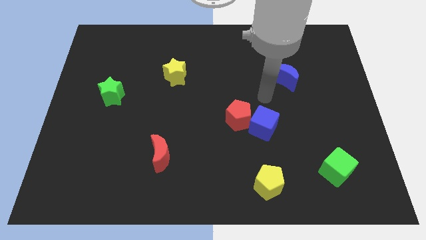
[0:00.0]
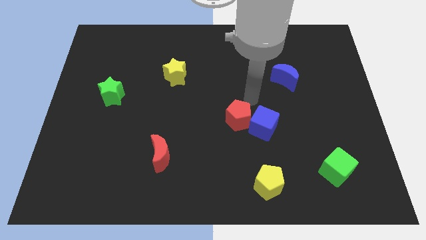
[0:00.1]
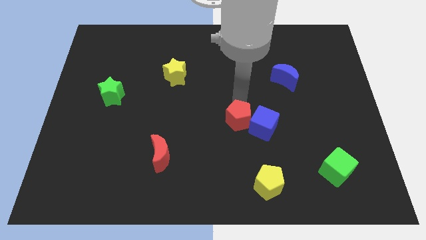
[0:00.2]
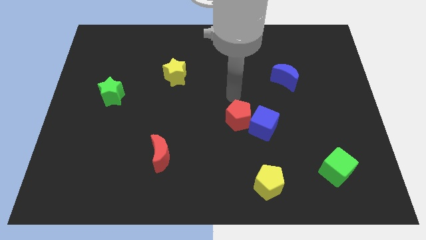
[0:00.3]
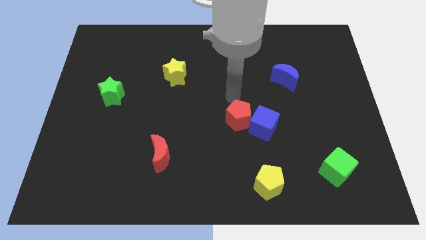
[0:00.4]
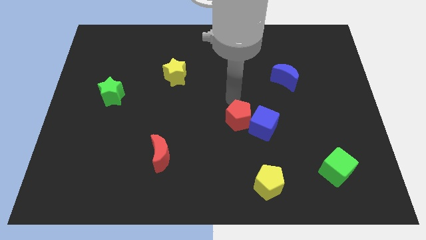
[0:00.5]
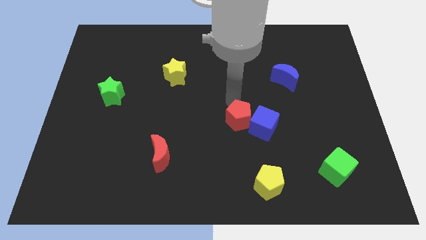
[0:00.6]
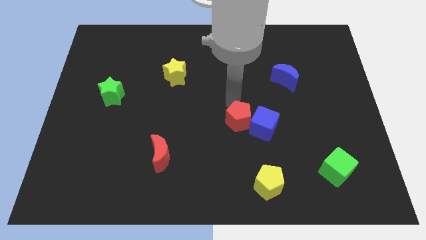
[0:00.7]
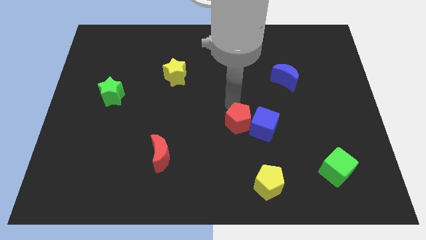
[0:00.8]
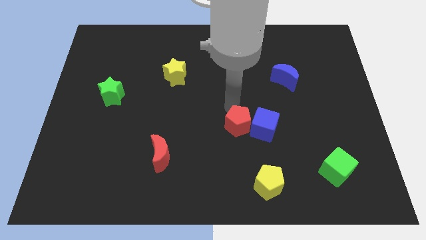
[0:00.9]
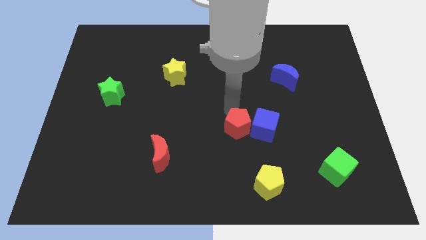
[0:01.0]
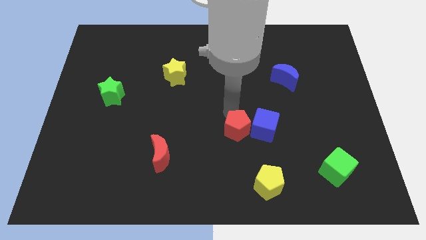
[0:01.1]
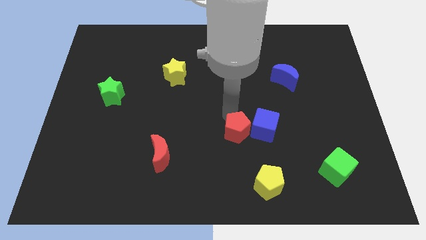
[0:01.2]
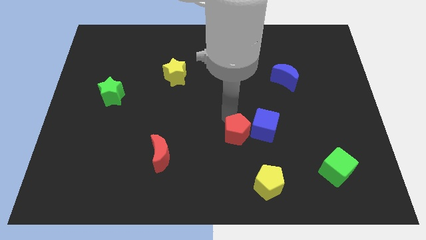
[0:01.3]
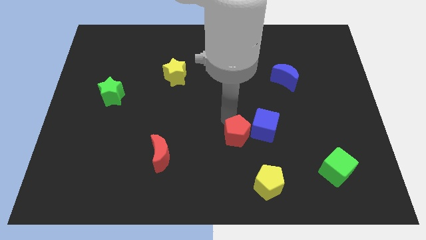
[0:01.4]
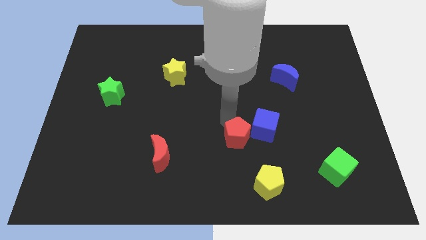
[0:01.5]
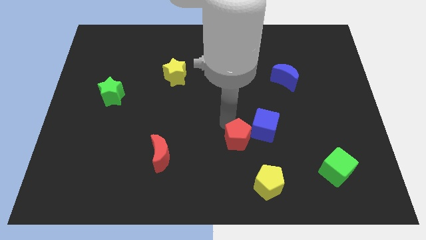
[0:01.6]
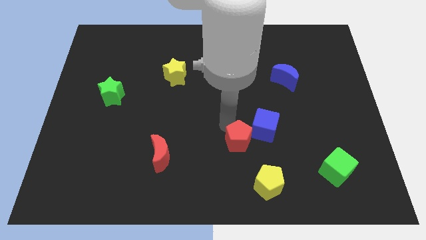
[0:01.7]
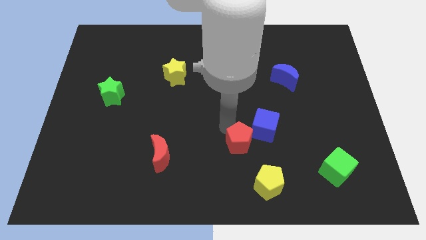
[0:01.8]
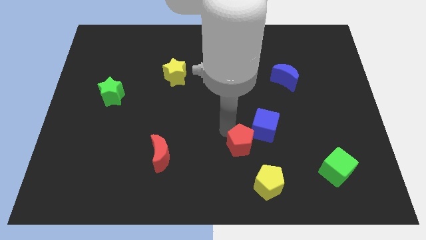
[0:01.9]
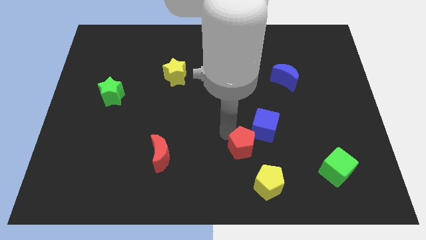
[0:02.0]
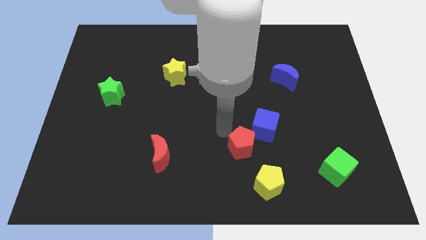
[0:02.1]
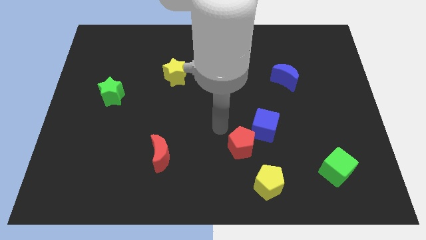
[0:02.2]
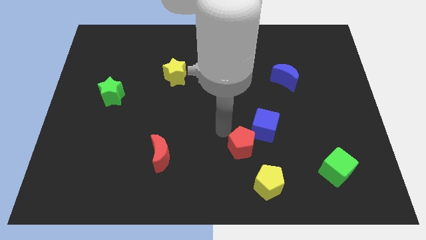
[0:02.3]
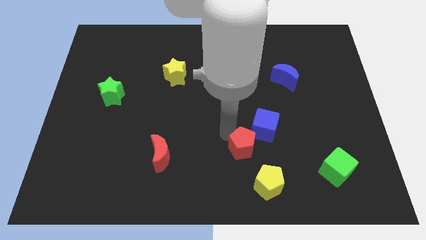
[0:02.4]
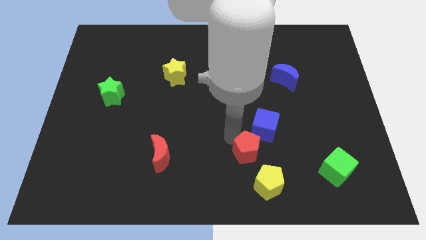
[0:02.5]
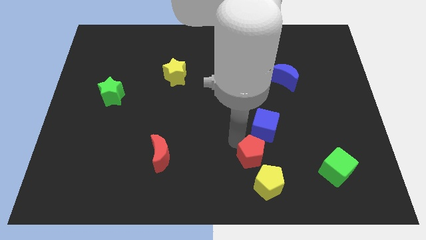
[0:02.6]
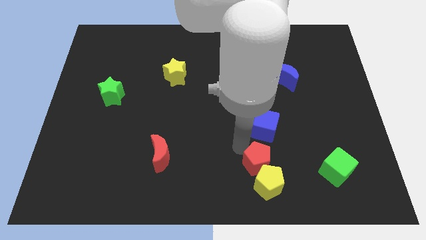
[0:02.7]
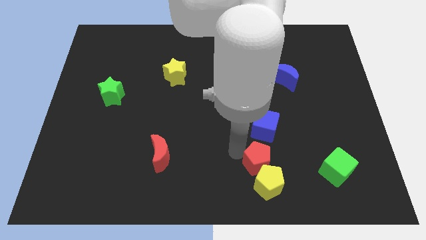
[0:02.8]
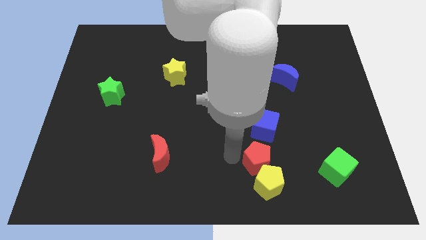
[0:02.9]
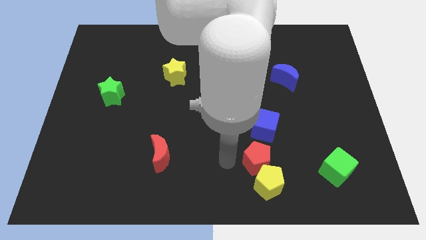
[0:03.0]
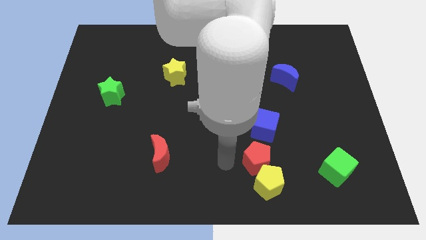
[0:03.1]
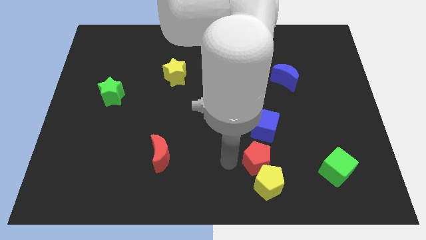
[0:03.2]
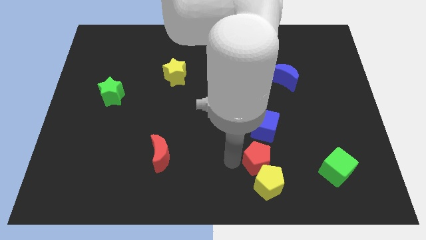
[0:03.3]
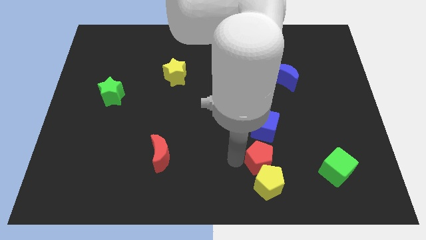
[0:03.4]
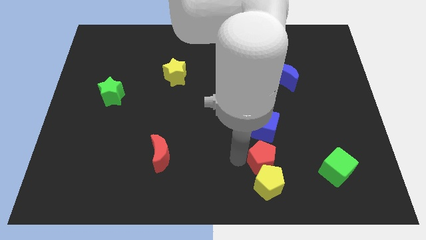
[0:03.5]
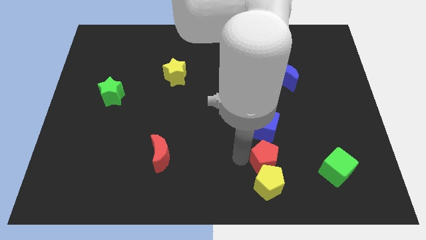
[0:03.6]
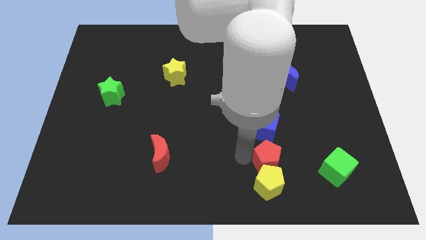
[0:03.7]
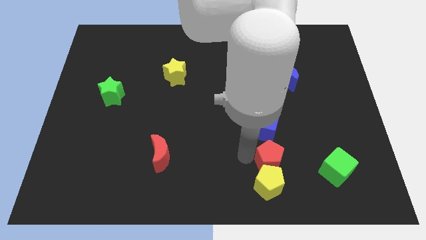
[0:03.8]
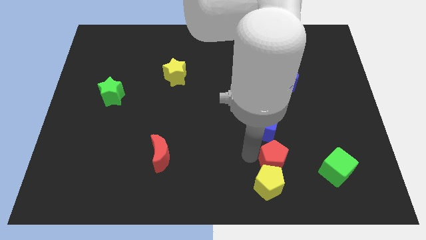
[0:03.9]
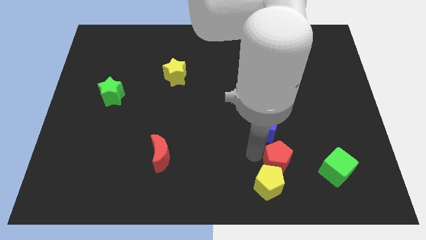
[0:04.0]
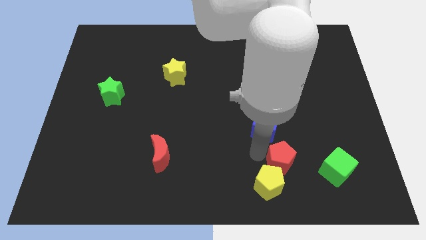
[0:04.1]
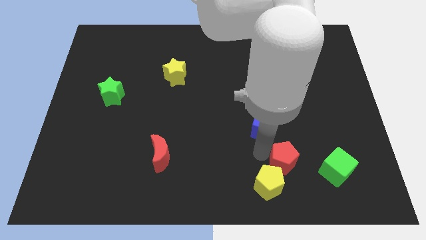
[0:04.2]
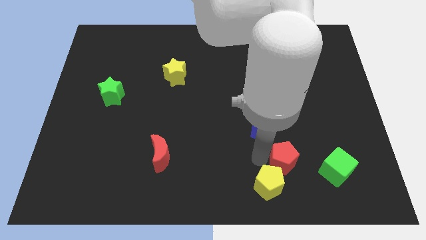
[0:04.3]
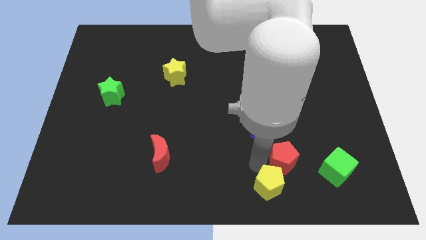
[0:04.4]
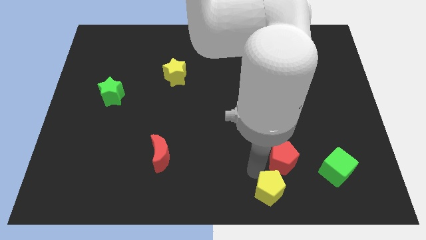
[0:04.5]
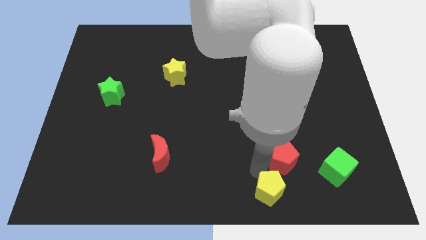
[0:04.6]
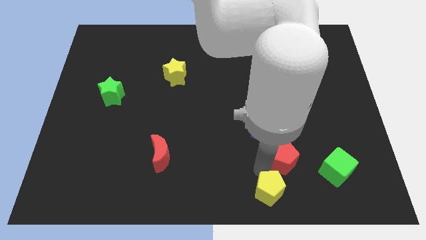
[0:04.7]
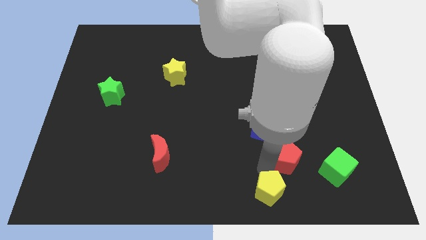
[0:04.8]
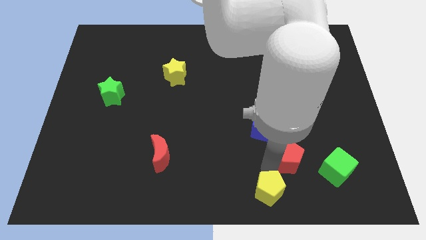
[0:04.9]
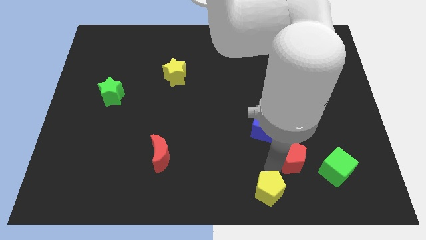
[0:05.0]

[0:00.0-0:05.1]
slide the red pentagon to the top left of the green cube
